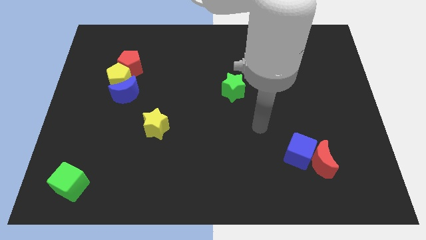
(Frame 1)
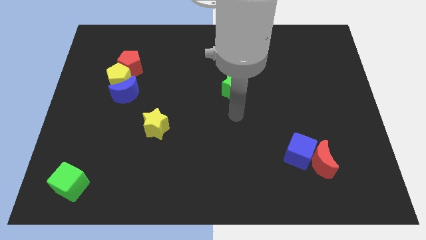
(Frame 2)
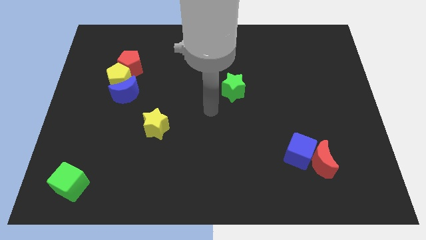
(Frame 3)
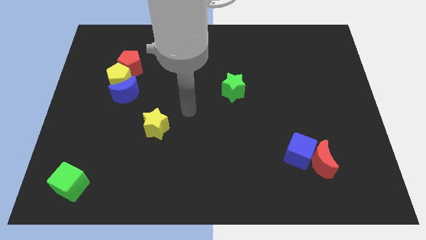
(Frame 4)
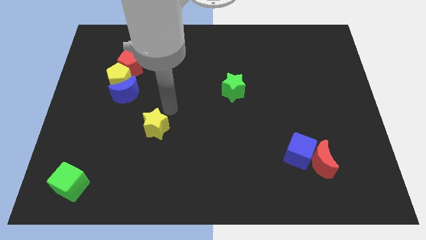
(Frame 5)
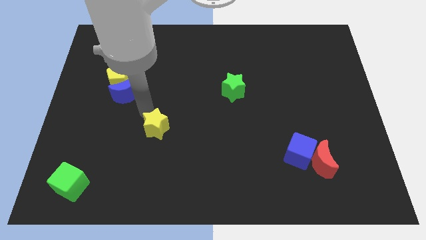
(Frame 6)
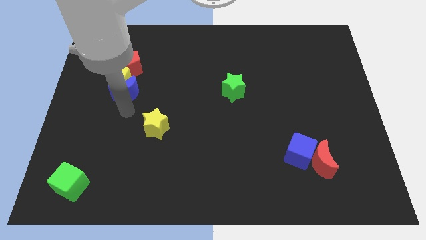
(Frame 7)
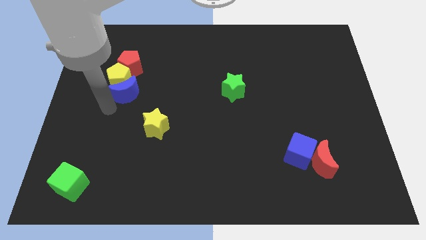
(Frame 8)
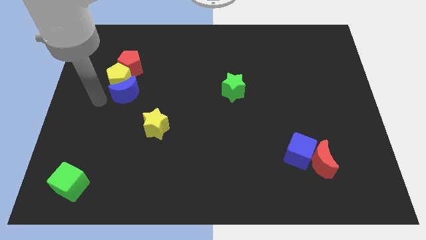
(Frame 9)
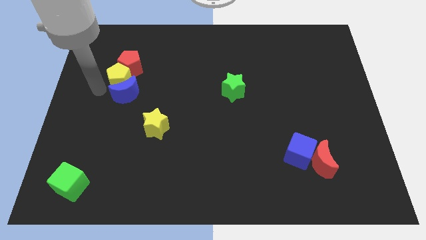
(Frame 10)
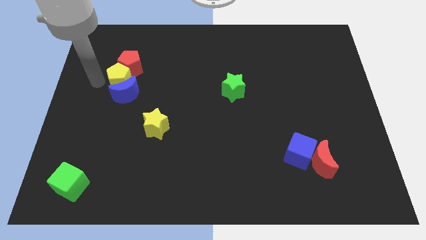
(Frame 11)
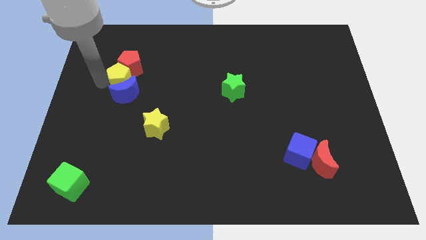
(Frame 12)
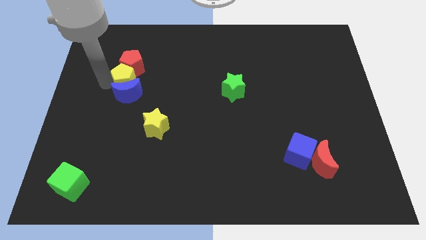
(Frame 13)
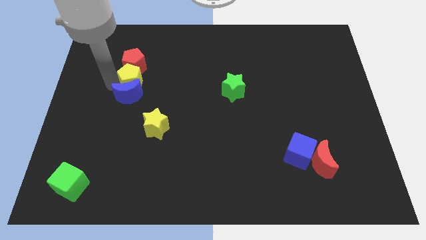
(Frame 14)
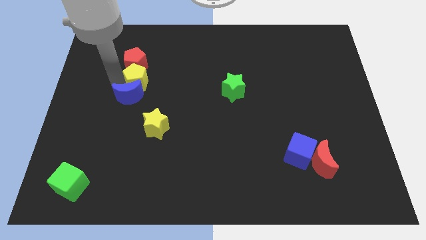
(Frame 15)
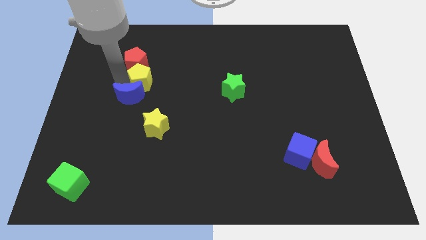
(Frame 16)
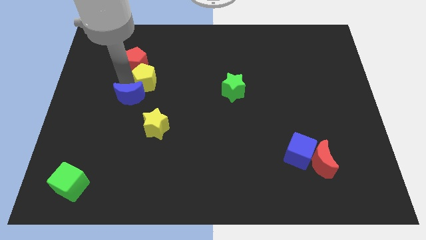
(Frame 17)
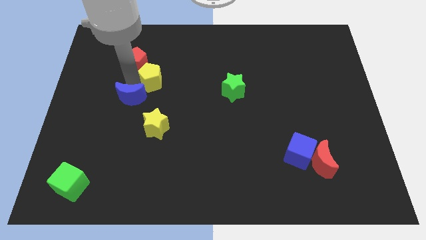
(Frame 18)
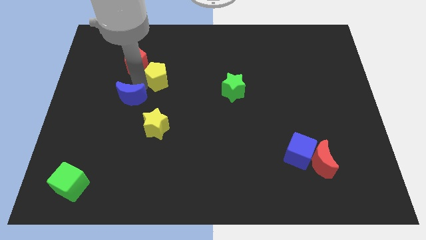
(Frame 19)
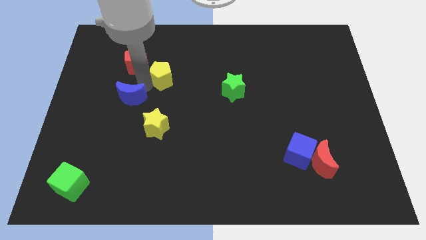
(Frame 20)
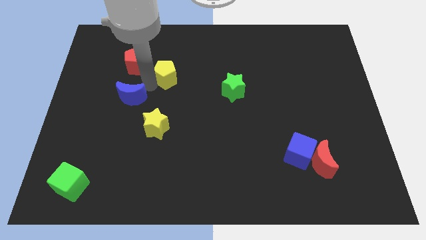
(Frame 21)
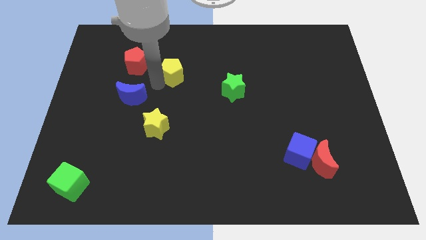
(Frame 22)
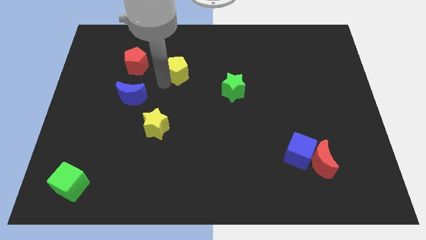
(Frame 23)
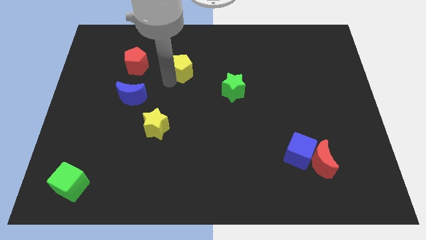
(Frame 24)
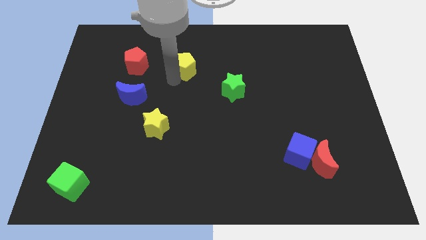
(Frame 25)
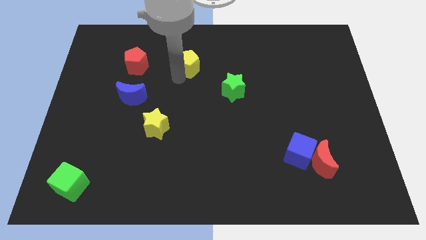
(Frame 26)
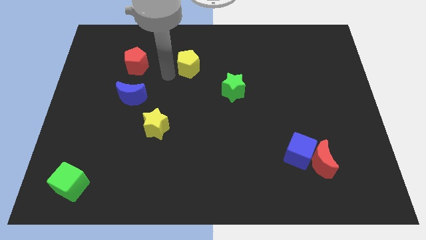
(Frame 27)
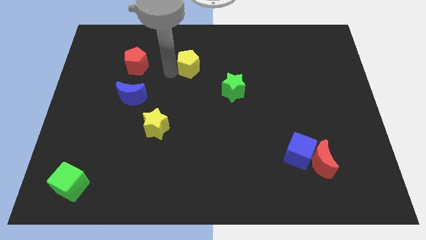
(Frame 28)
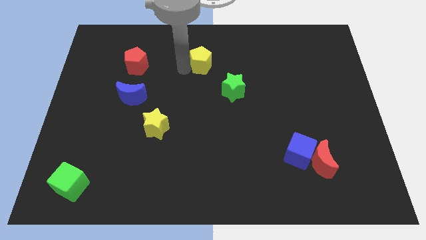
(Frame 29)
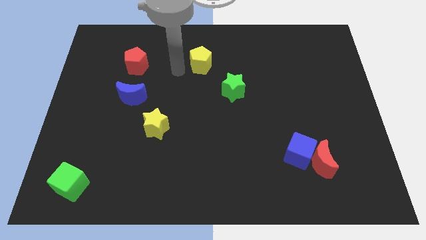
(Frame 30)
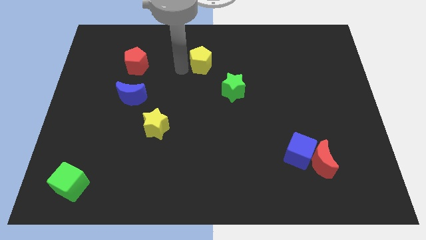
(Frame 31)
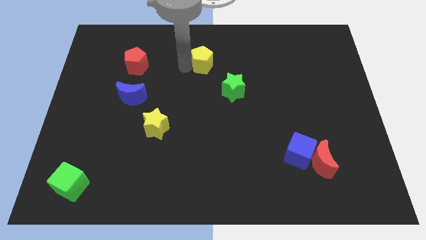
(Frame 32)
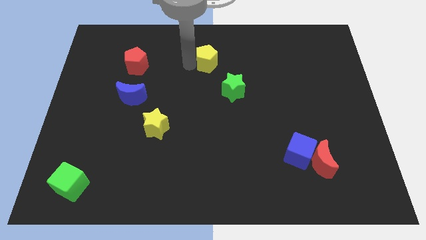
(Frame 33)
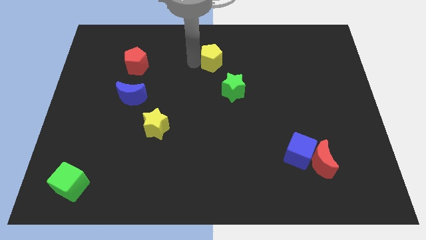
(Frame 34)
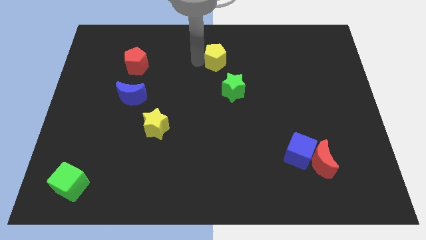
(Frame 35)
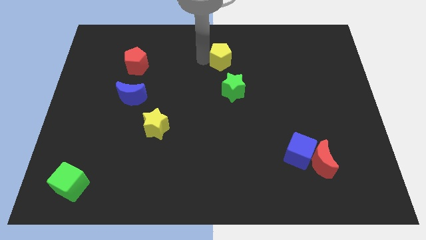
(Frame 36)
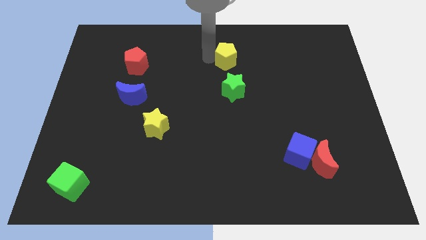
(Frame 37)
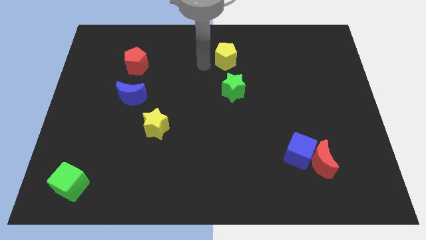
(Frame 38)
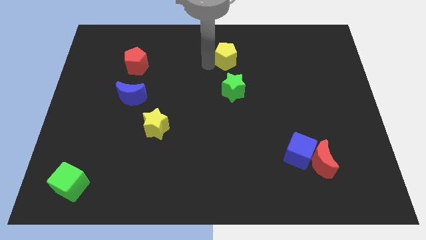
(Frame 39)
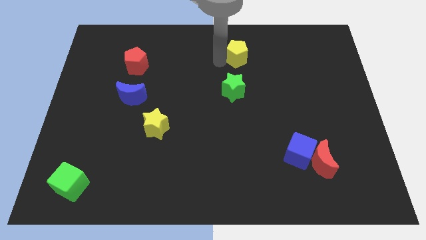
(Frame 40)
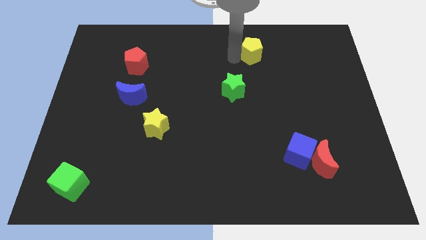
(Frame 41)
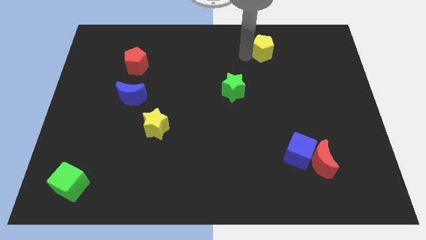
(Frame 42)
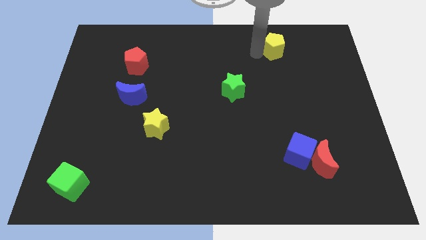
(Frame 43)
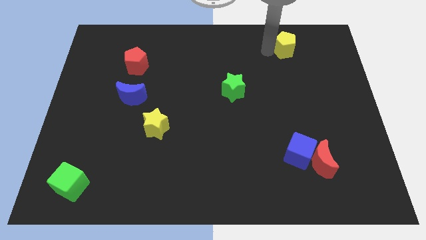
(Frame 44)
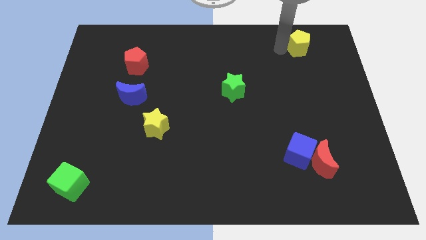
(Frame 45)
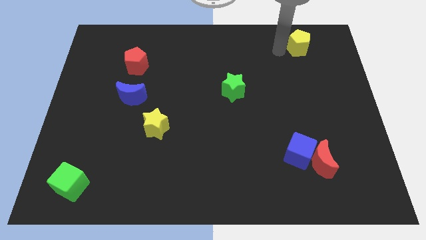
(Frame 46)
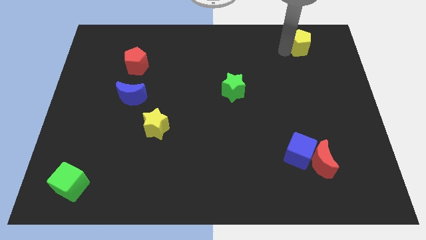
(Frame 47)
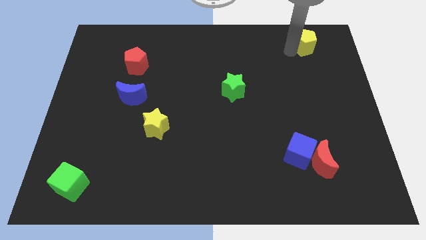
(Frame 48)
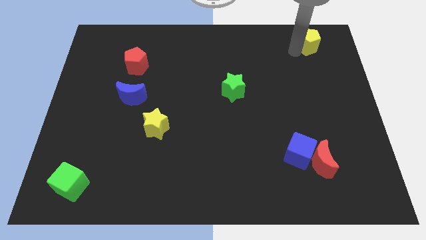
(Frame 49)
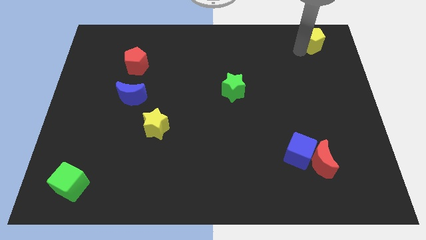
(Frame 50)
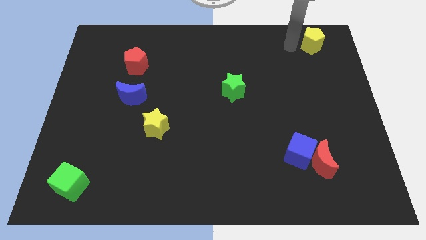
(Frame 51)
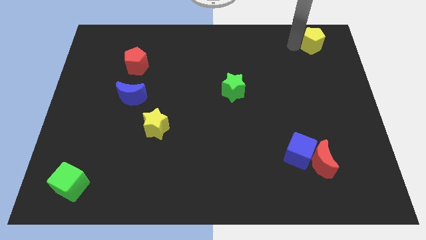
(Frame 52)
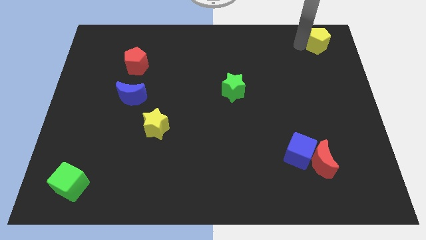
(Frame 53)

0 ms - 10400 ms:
slide the yellow pentagon to the upper right corner

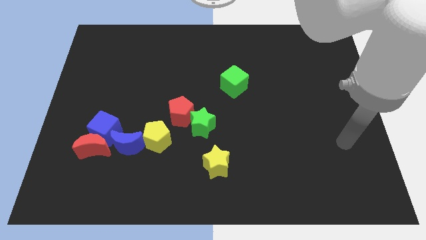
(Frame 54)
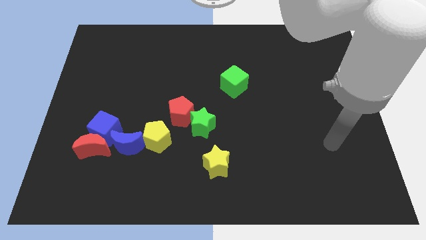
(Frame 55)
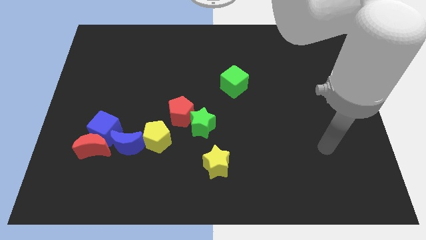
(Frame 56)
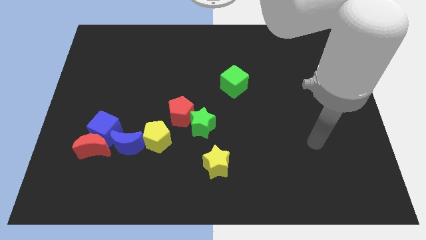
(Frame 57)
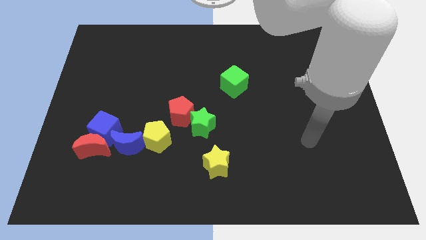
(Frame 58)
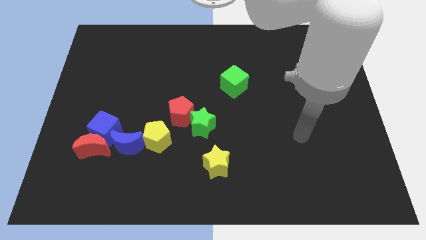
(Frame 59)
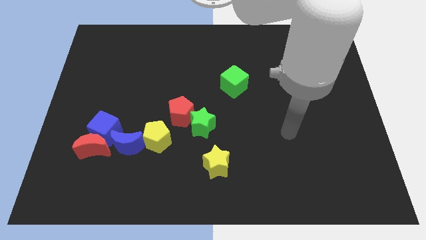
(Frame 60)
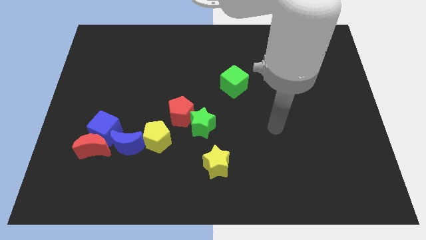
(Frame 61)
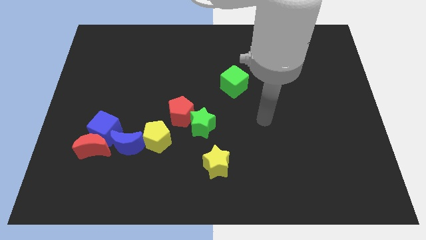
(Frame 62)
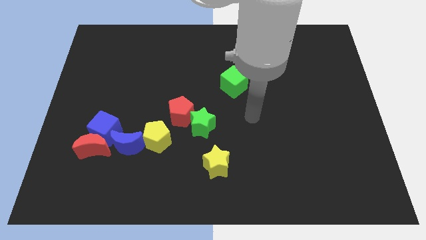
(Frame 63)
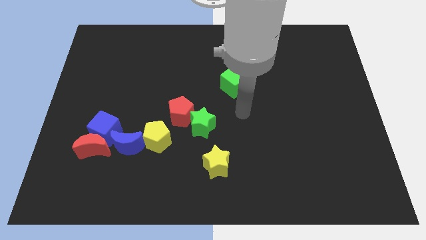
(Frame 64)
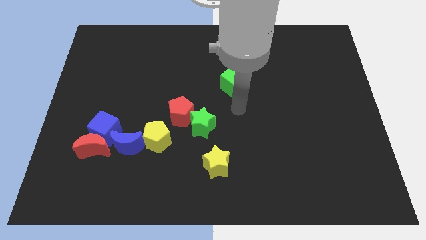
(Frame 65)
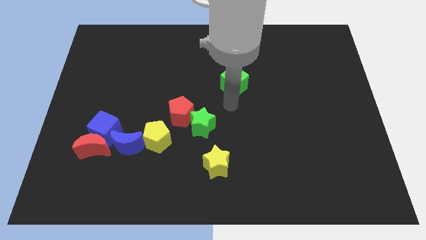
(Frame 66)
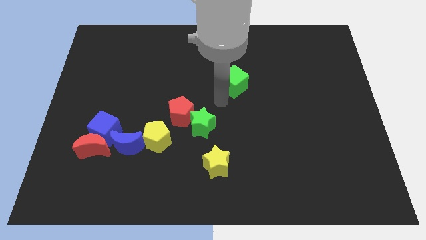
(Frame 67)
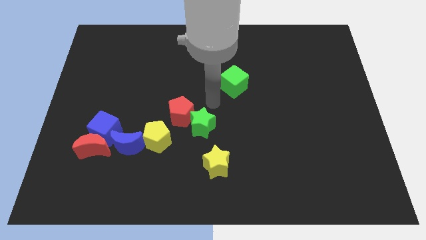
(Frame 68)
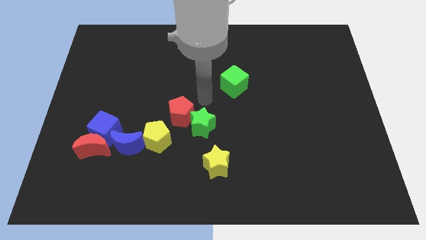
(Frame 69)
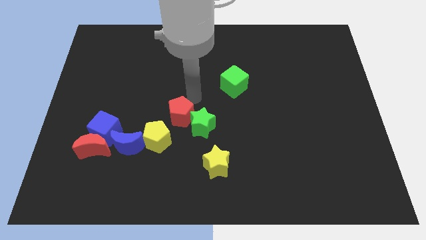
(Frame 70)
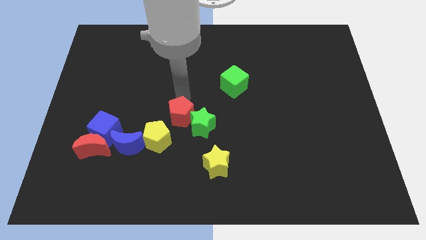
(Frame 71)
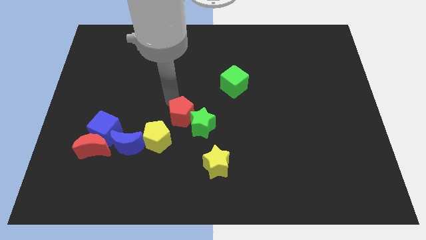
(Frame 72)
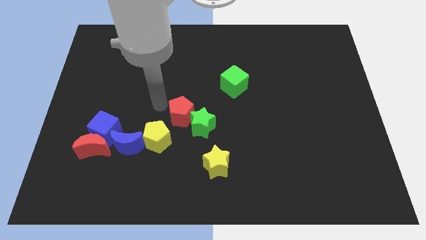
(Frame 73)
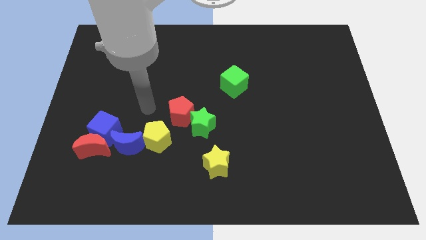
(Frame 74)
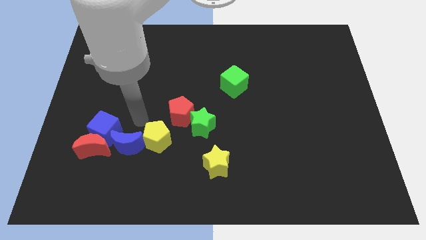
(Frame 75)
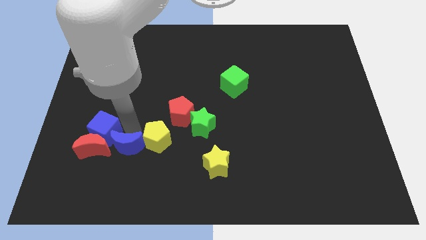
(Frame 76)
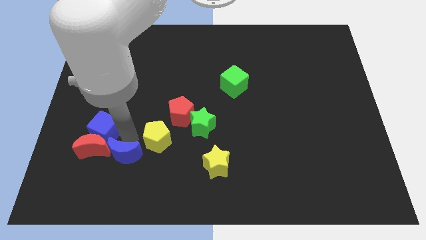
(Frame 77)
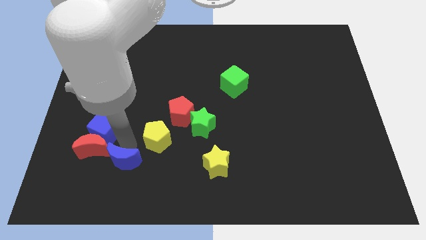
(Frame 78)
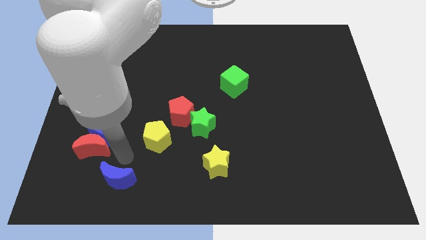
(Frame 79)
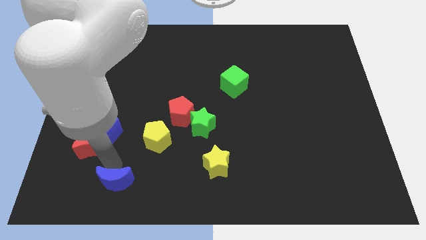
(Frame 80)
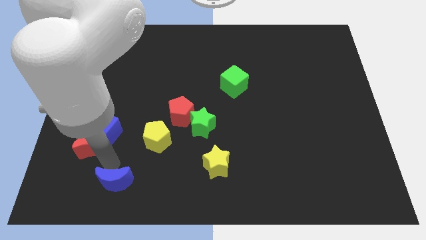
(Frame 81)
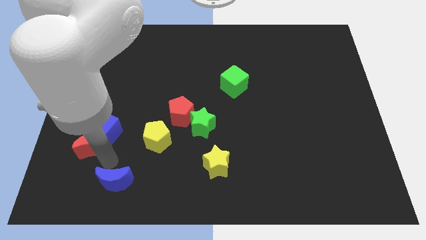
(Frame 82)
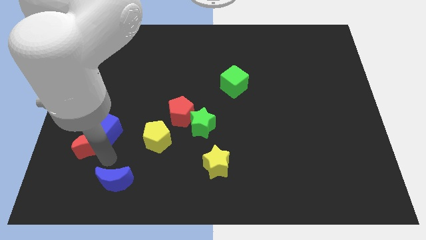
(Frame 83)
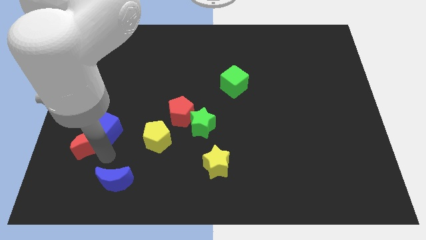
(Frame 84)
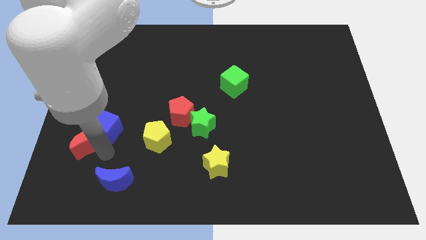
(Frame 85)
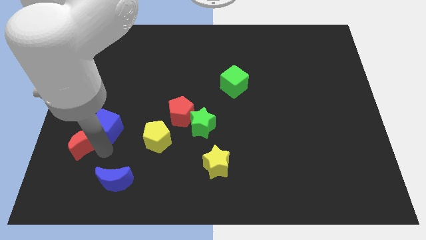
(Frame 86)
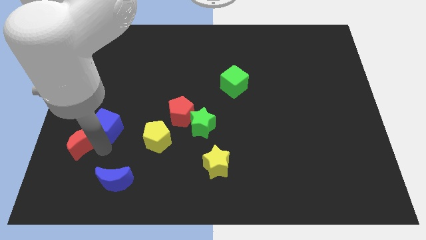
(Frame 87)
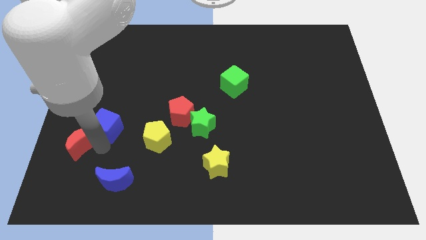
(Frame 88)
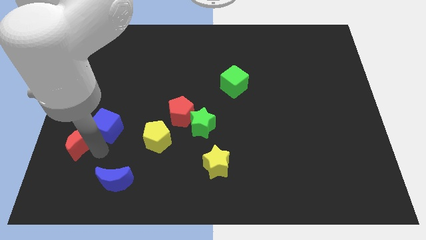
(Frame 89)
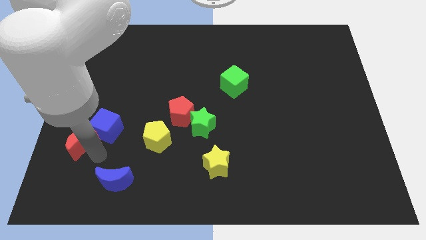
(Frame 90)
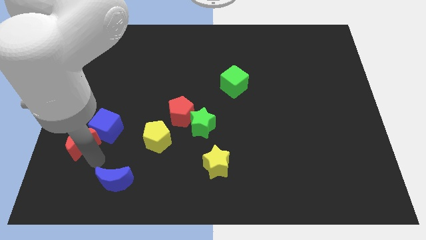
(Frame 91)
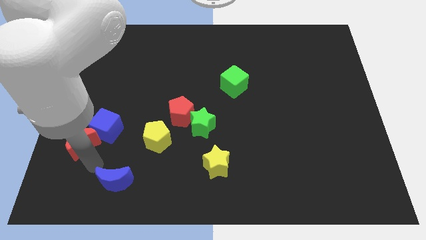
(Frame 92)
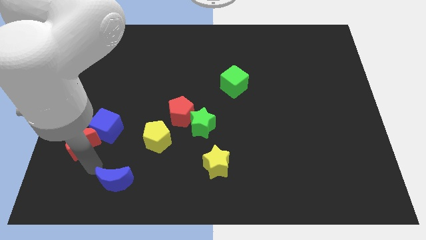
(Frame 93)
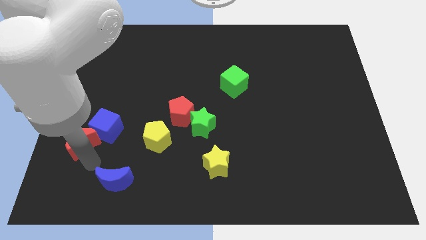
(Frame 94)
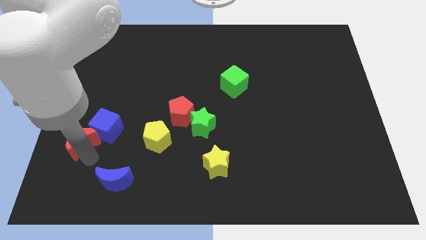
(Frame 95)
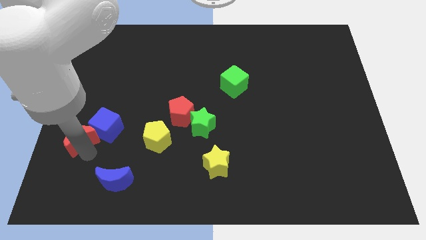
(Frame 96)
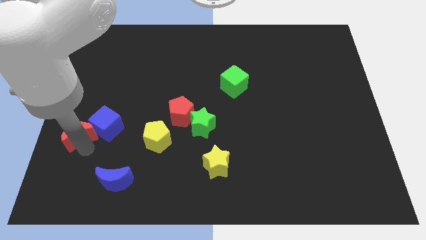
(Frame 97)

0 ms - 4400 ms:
slide the red moon to the center left
